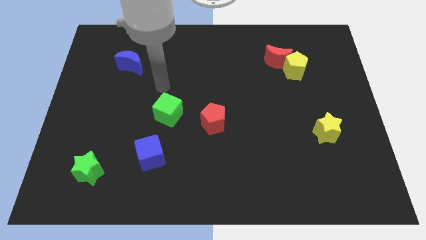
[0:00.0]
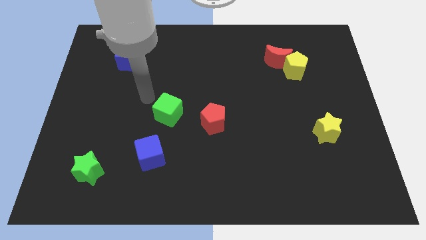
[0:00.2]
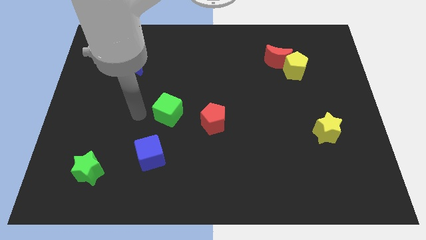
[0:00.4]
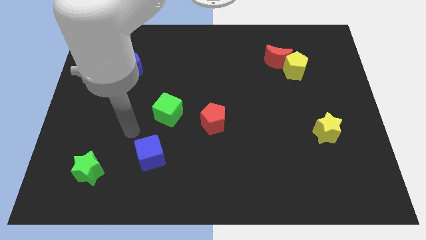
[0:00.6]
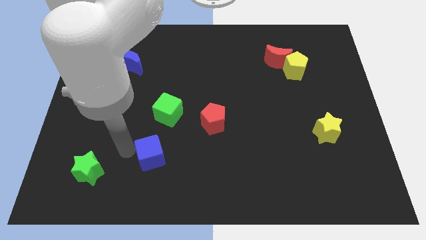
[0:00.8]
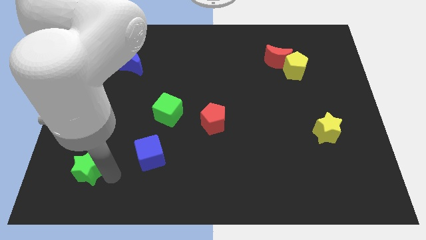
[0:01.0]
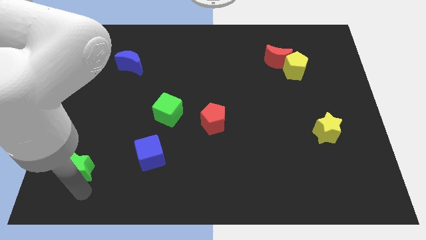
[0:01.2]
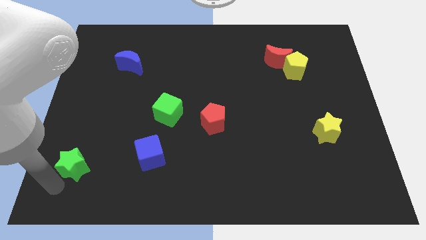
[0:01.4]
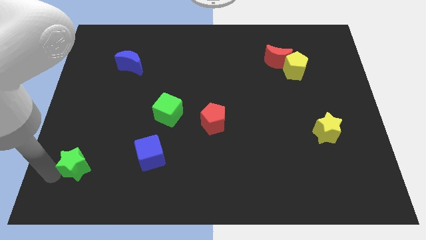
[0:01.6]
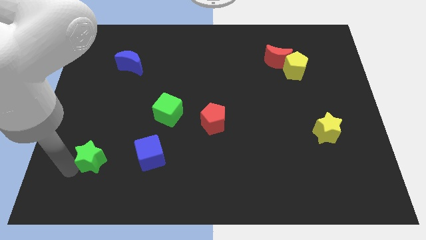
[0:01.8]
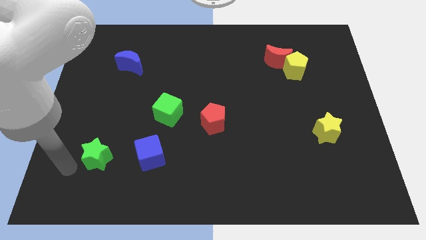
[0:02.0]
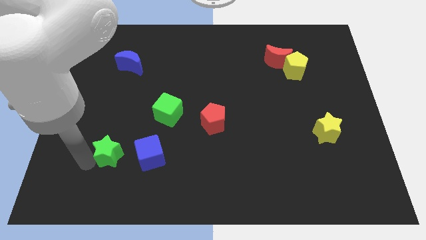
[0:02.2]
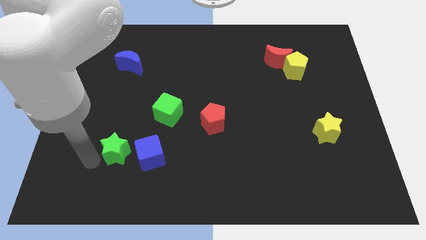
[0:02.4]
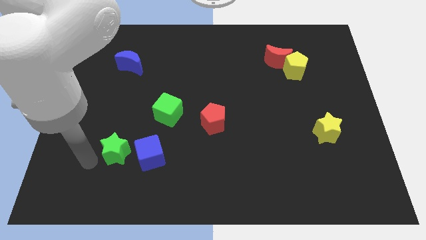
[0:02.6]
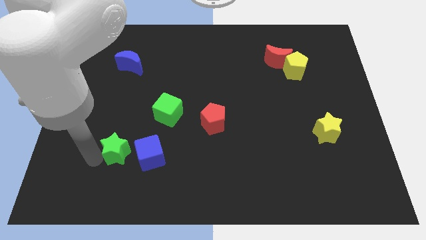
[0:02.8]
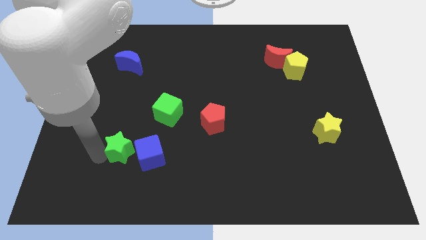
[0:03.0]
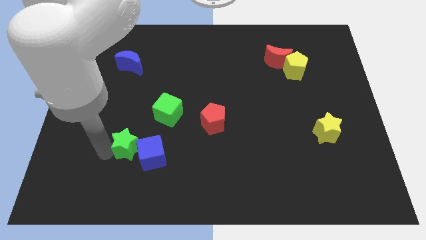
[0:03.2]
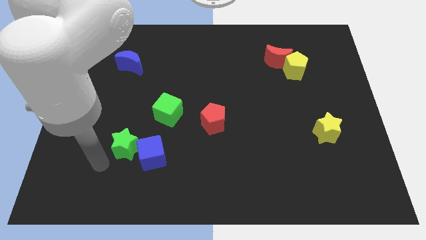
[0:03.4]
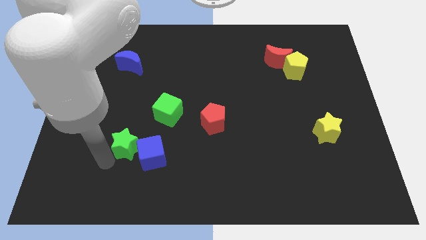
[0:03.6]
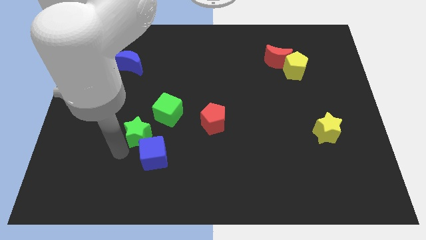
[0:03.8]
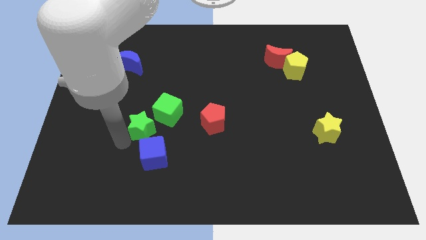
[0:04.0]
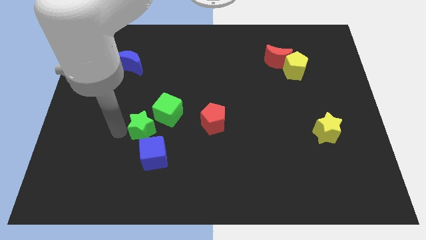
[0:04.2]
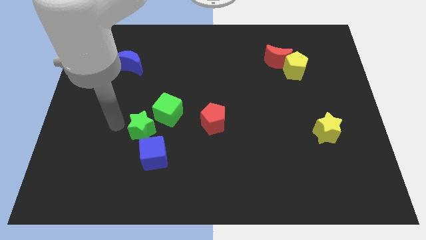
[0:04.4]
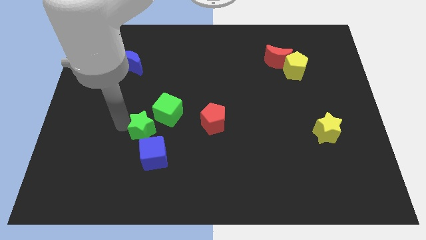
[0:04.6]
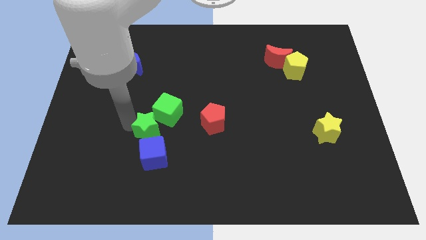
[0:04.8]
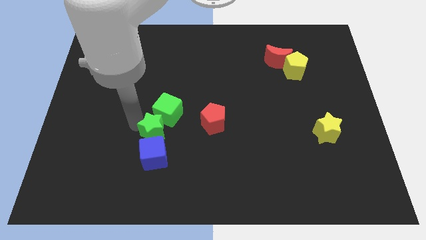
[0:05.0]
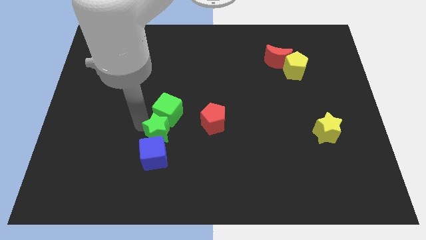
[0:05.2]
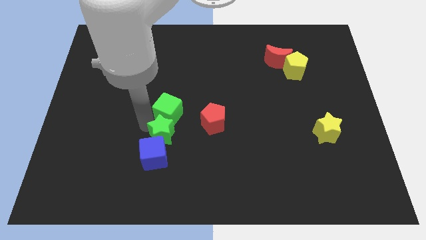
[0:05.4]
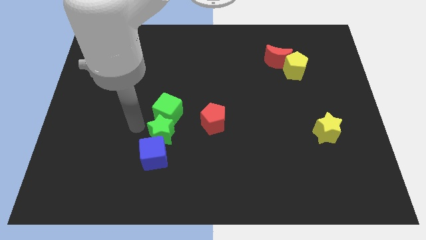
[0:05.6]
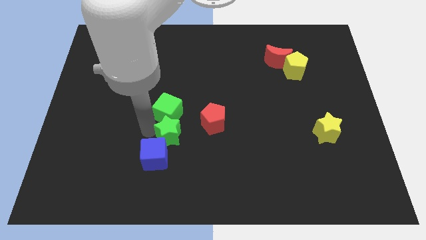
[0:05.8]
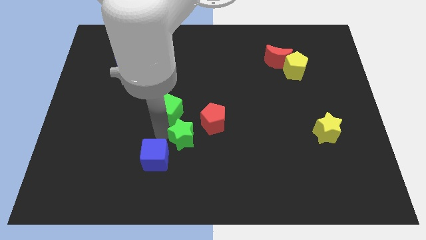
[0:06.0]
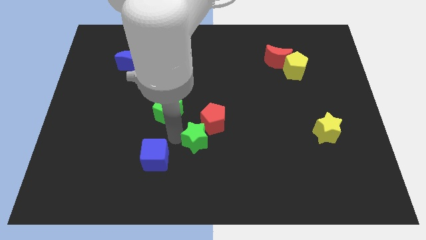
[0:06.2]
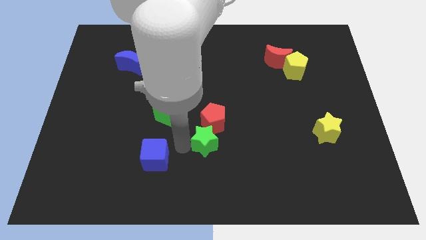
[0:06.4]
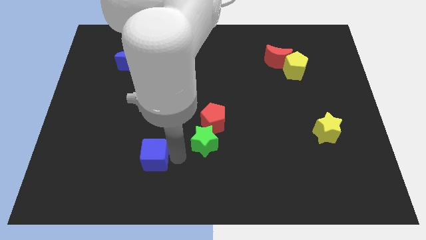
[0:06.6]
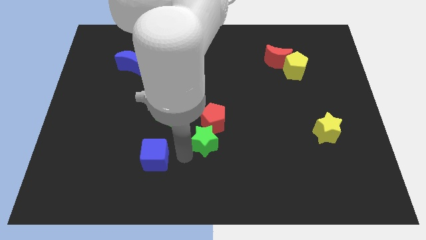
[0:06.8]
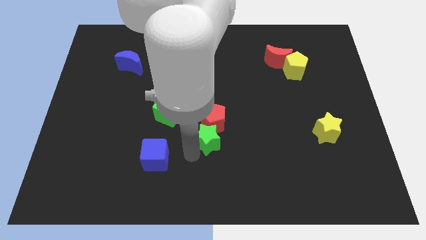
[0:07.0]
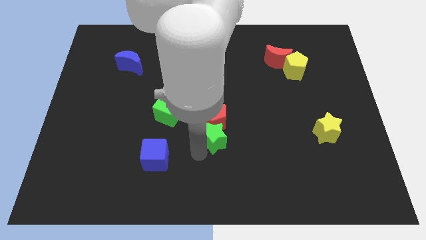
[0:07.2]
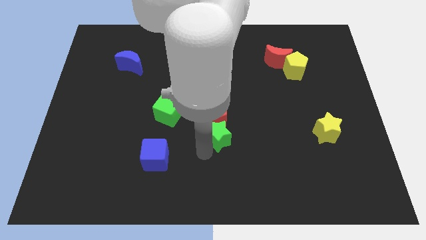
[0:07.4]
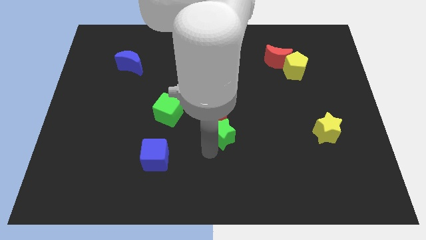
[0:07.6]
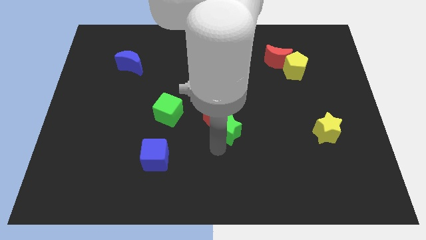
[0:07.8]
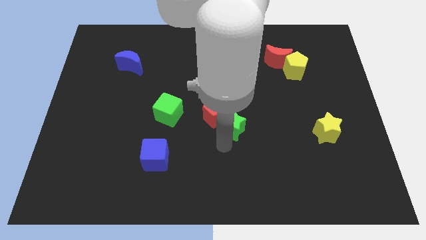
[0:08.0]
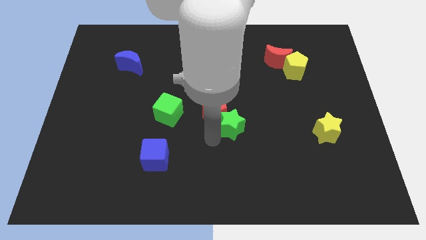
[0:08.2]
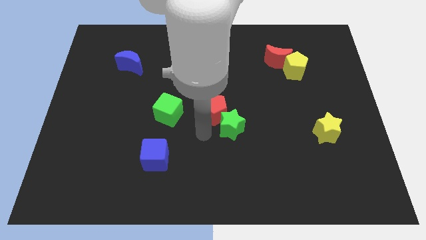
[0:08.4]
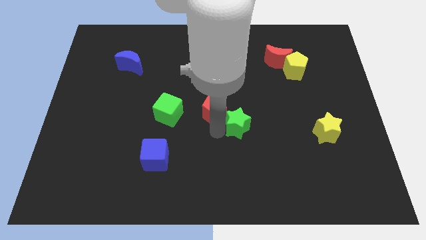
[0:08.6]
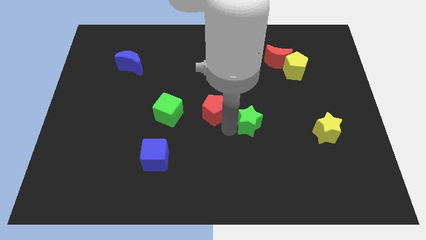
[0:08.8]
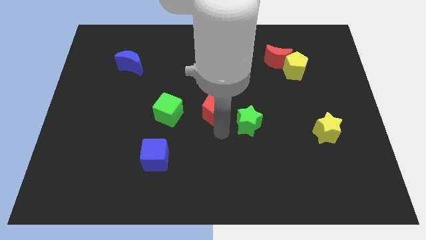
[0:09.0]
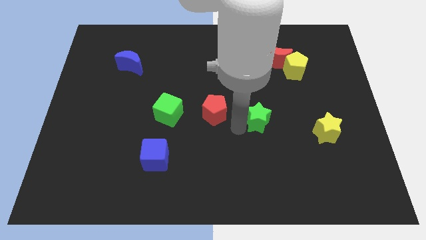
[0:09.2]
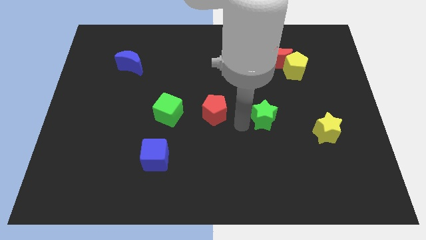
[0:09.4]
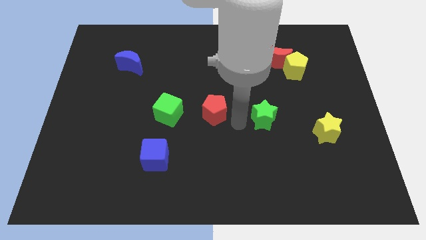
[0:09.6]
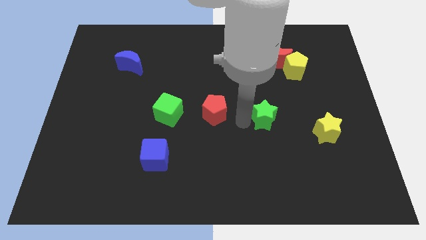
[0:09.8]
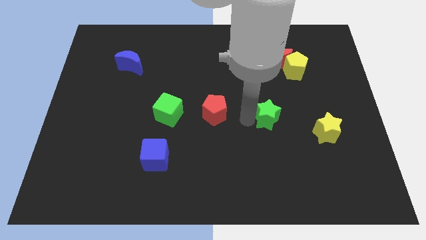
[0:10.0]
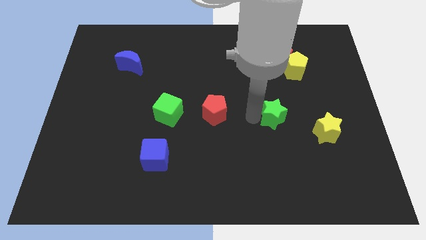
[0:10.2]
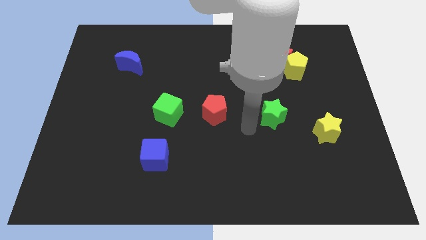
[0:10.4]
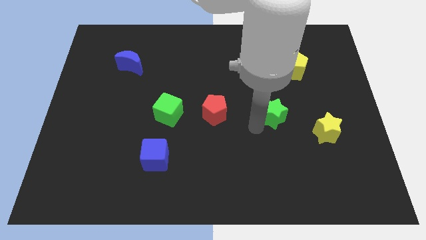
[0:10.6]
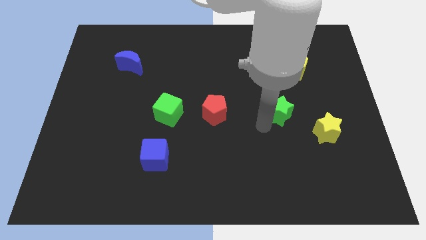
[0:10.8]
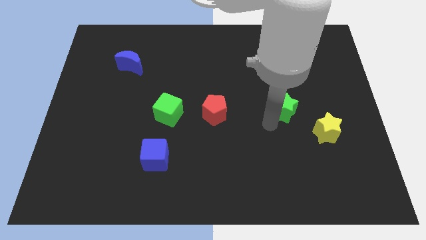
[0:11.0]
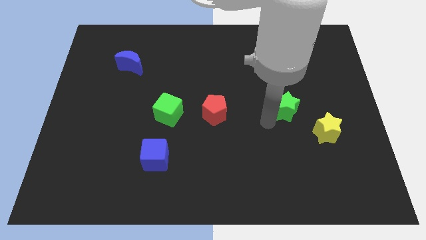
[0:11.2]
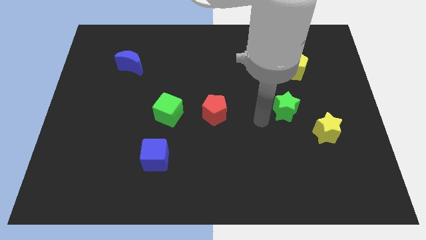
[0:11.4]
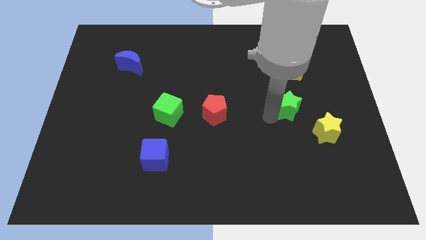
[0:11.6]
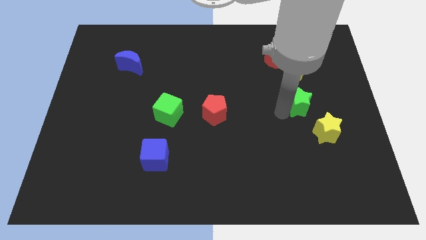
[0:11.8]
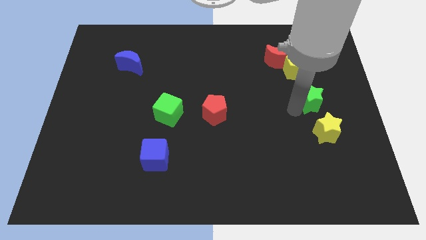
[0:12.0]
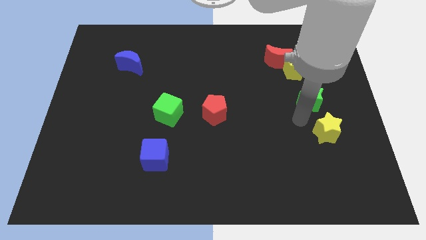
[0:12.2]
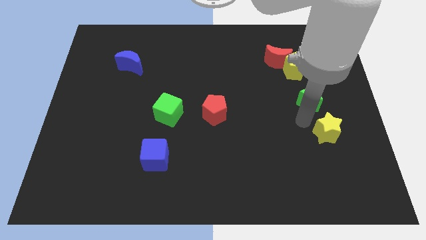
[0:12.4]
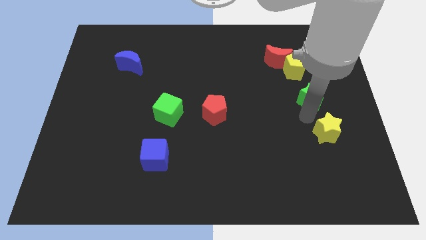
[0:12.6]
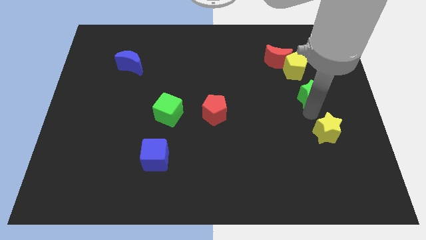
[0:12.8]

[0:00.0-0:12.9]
push the green star to the bottom right side of the yellow pentagon

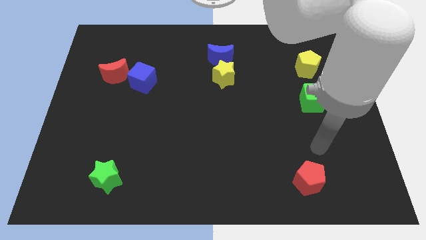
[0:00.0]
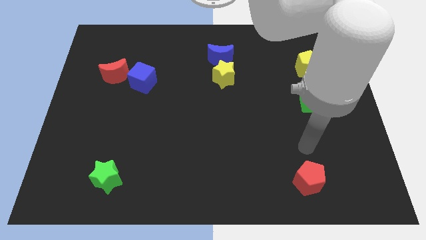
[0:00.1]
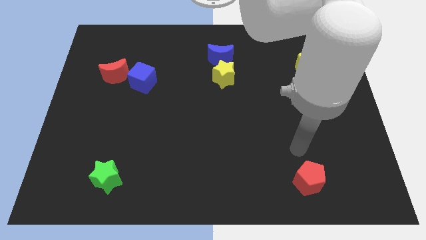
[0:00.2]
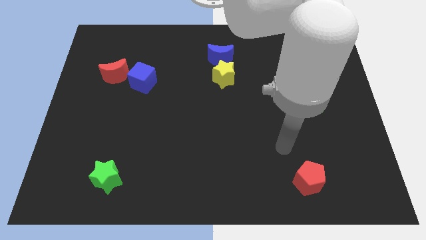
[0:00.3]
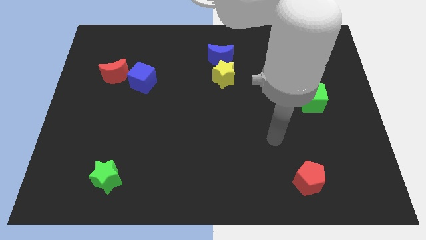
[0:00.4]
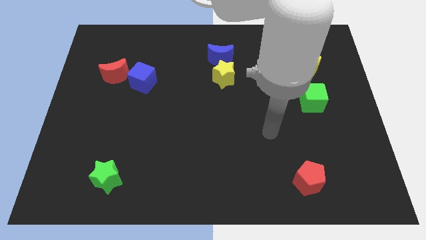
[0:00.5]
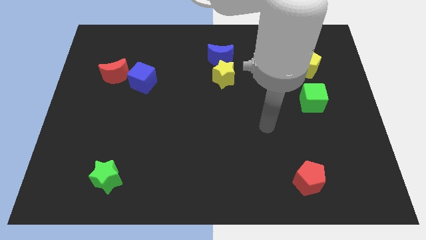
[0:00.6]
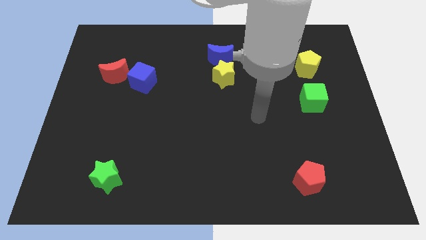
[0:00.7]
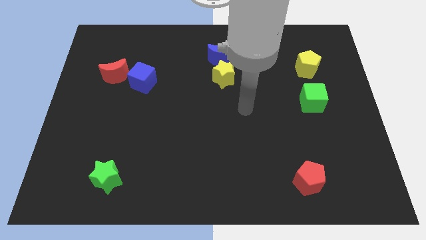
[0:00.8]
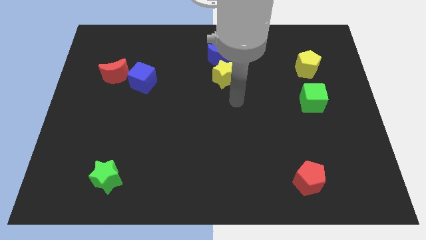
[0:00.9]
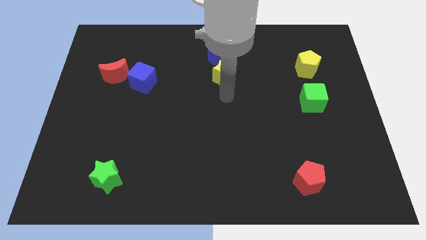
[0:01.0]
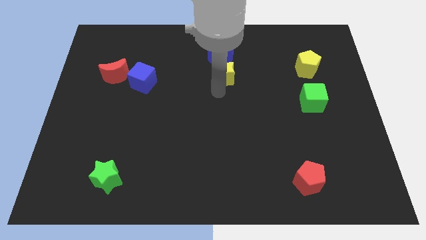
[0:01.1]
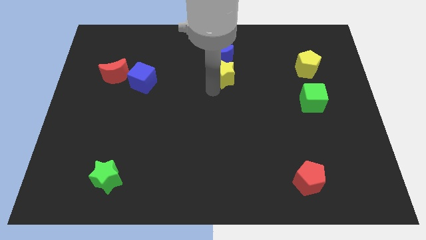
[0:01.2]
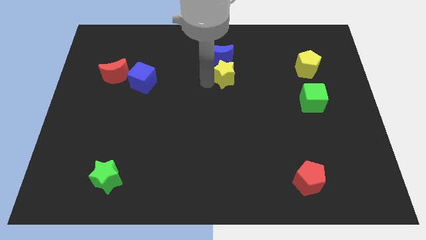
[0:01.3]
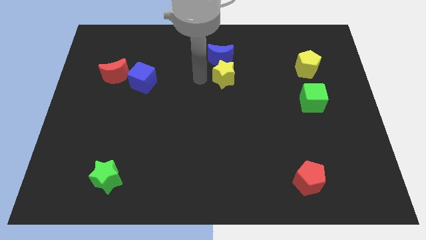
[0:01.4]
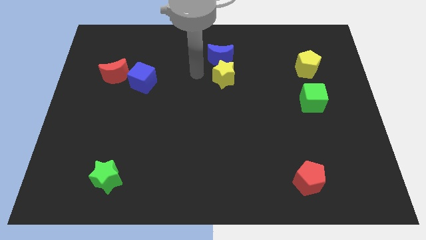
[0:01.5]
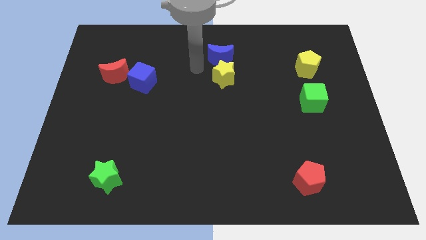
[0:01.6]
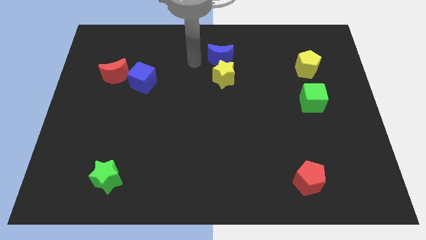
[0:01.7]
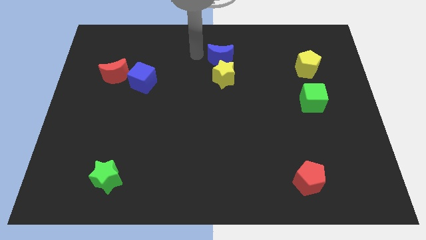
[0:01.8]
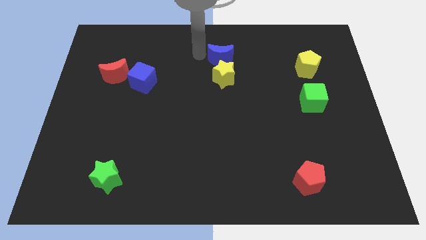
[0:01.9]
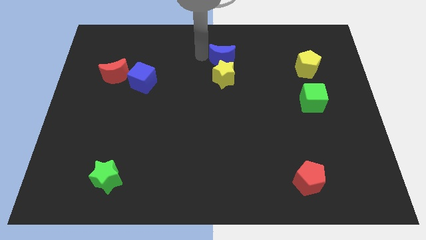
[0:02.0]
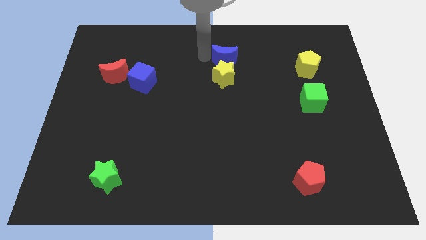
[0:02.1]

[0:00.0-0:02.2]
move the blue moon diagonally up and to the right of the yellow star
